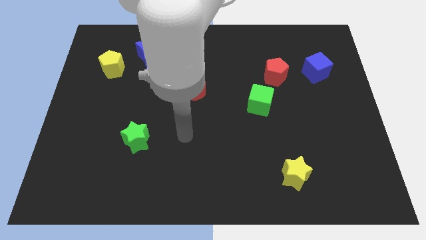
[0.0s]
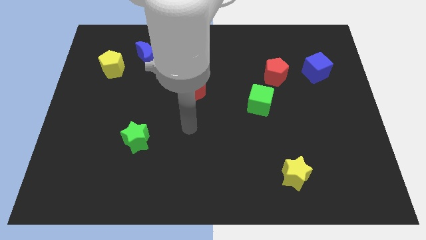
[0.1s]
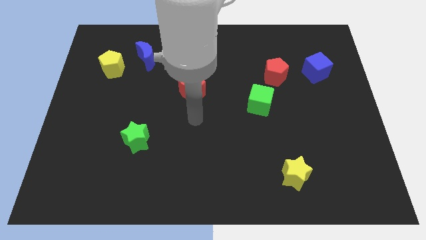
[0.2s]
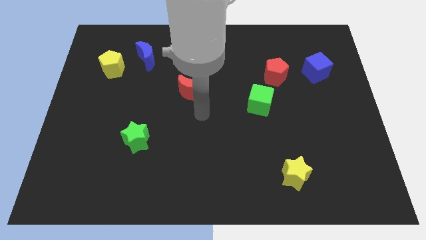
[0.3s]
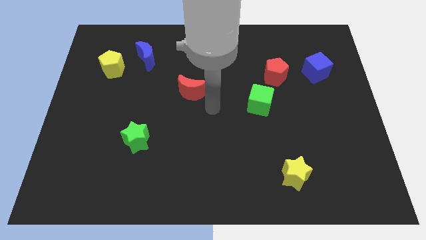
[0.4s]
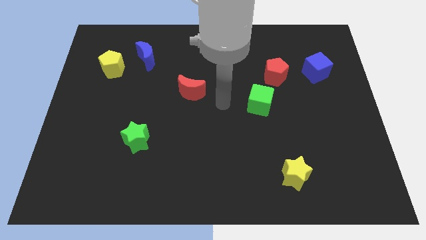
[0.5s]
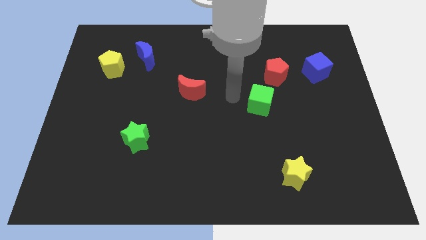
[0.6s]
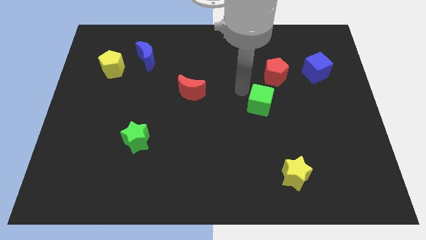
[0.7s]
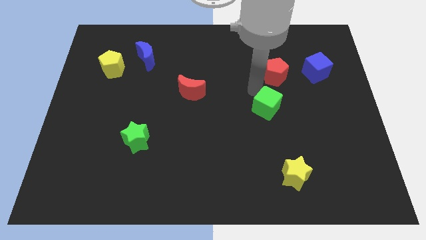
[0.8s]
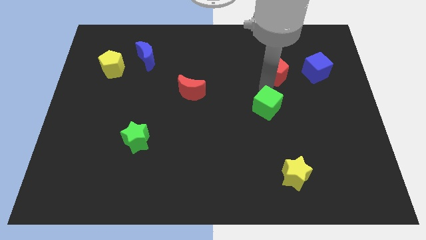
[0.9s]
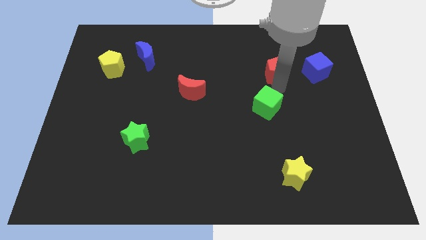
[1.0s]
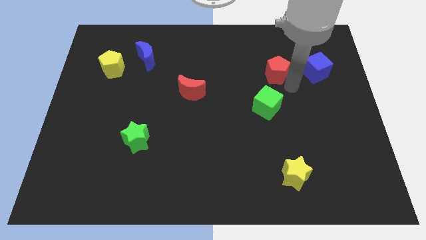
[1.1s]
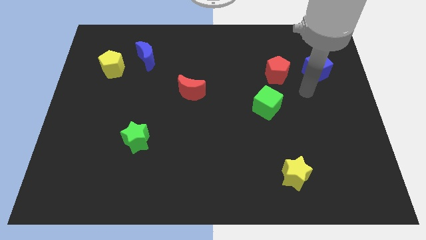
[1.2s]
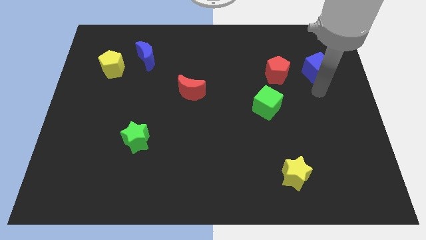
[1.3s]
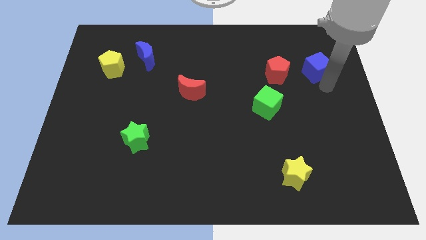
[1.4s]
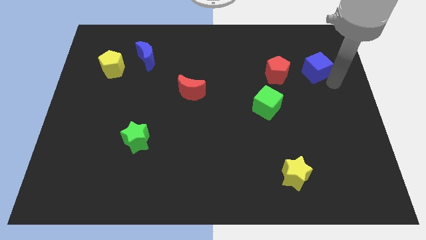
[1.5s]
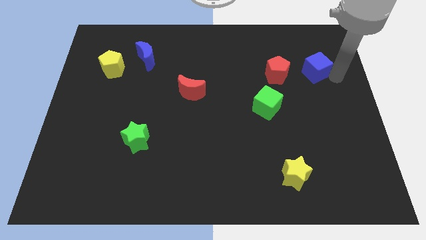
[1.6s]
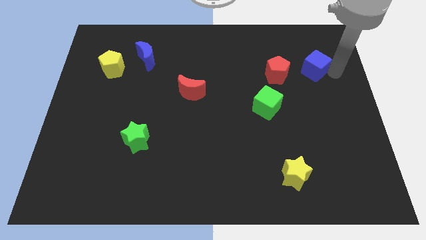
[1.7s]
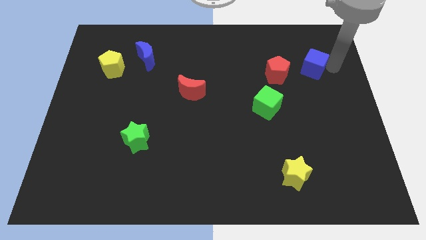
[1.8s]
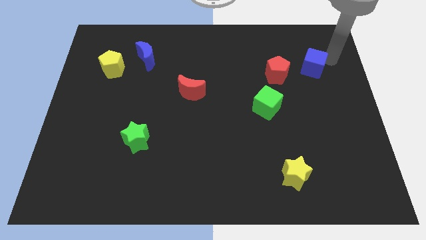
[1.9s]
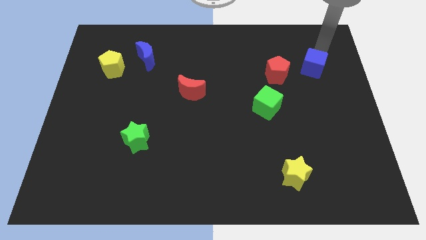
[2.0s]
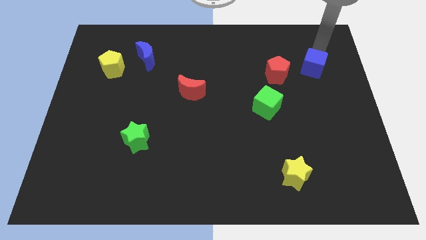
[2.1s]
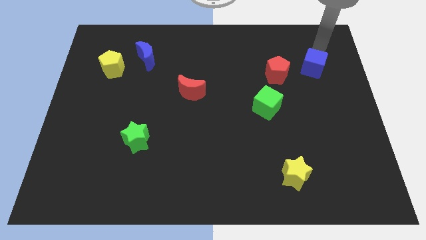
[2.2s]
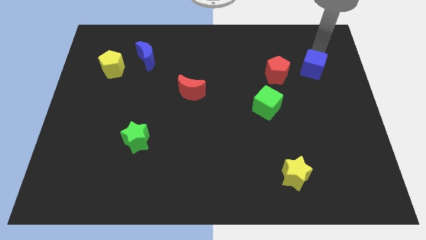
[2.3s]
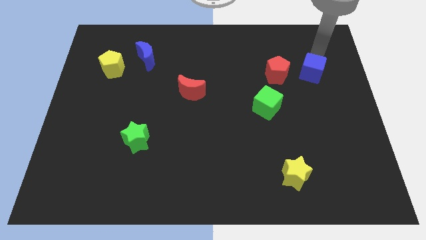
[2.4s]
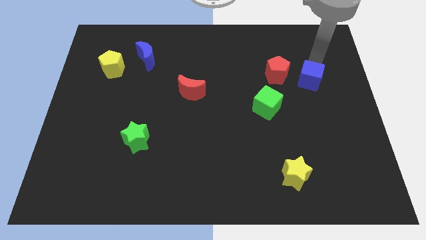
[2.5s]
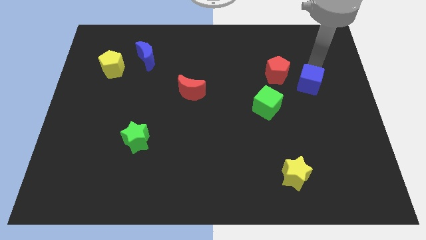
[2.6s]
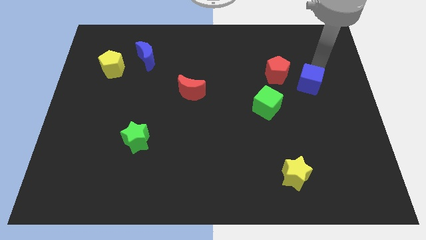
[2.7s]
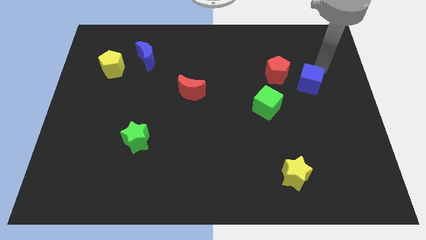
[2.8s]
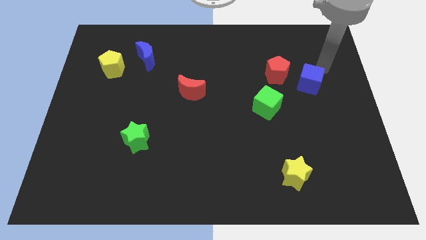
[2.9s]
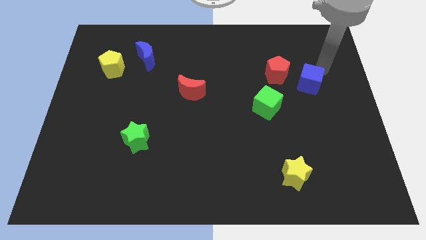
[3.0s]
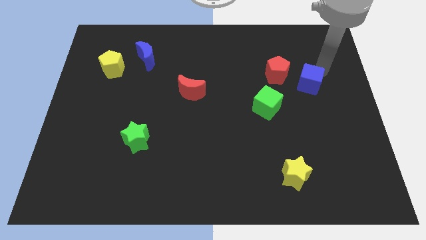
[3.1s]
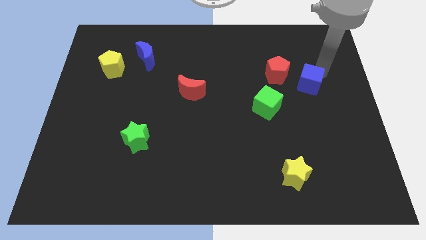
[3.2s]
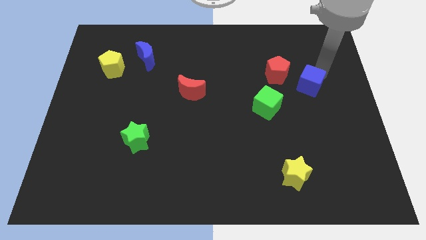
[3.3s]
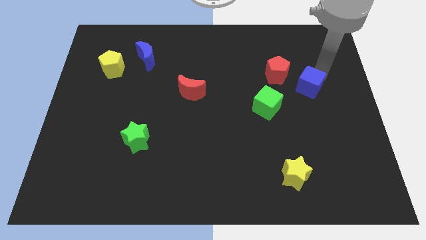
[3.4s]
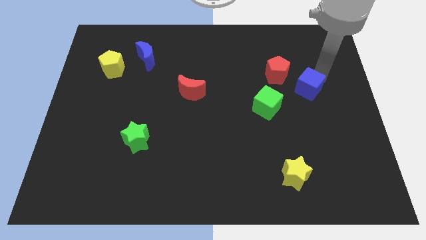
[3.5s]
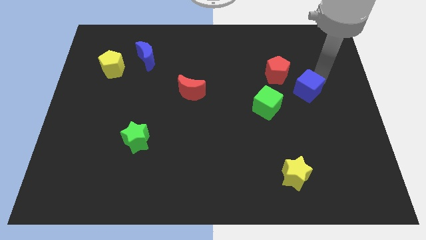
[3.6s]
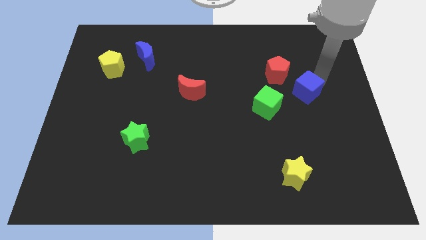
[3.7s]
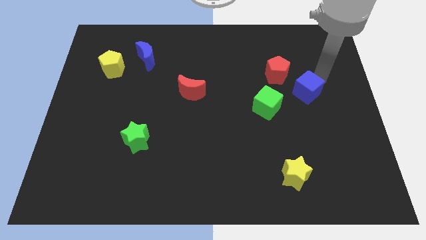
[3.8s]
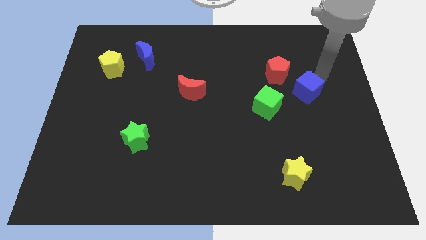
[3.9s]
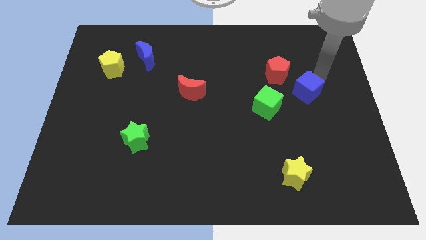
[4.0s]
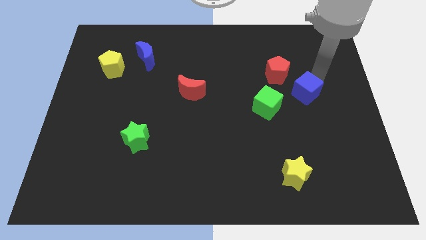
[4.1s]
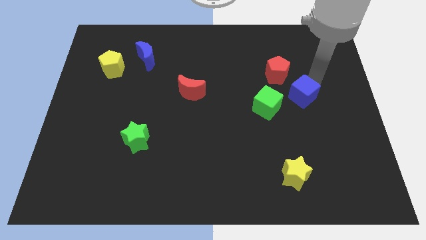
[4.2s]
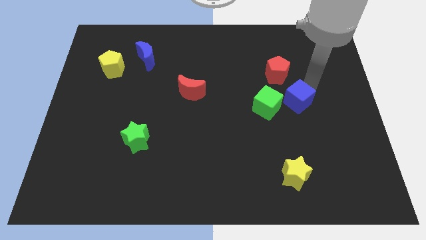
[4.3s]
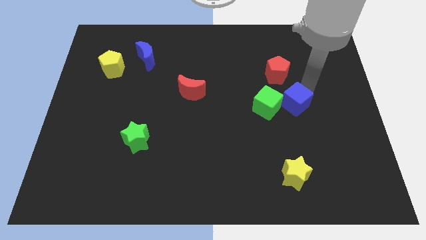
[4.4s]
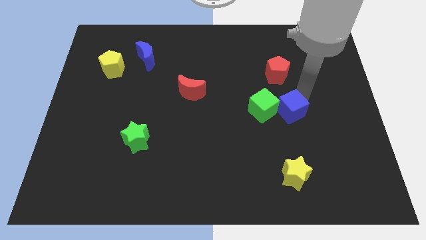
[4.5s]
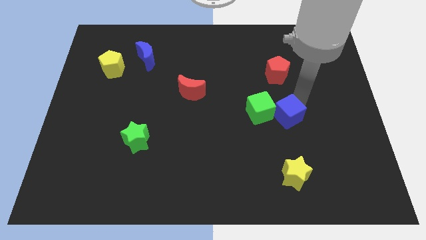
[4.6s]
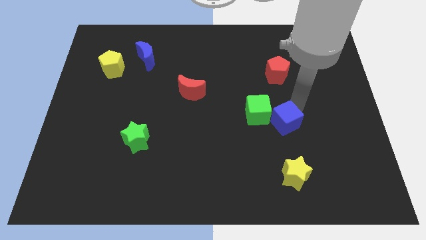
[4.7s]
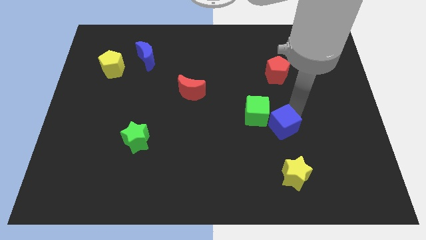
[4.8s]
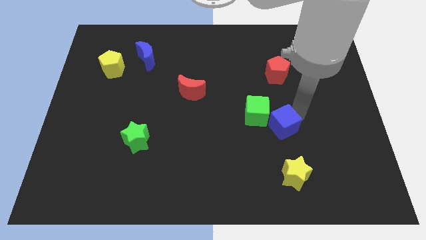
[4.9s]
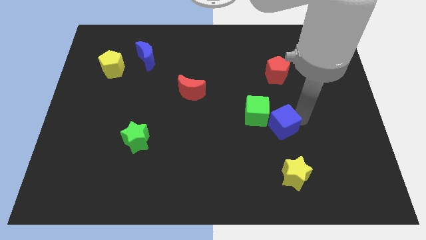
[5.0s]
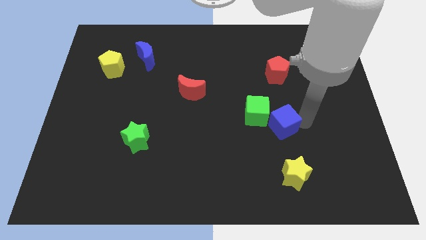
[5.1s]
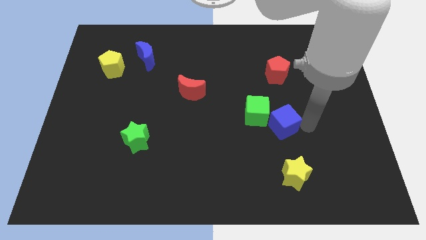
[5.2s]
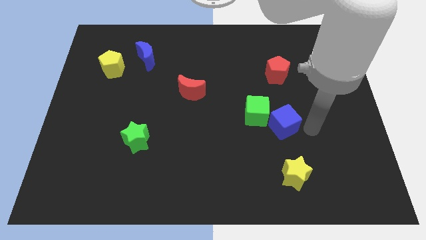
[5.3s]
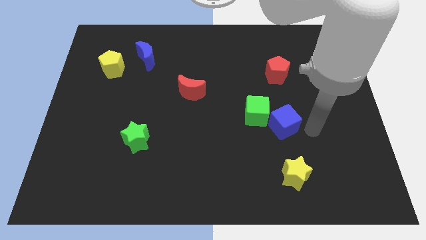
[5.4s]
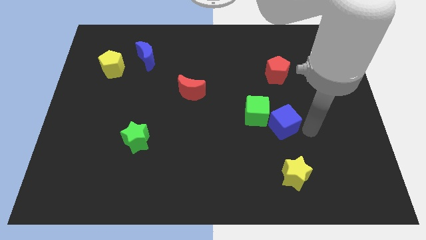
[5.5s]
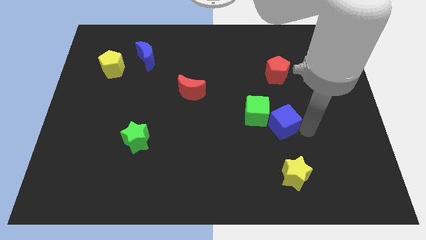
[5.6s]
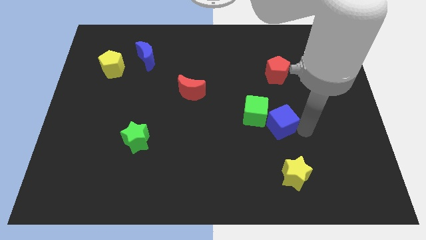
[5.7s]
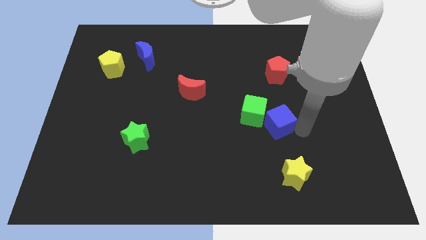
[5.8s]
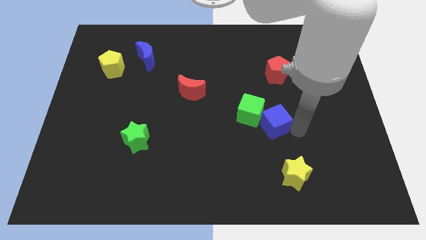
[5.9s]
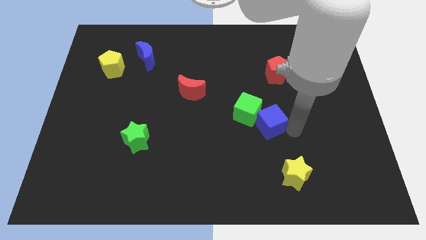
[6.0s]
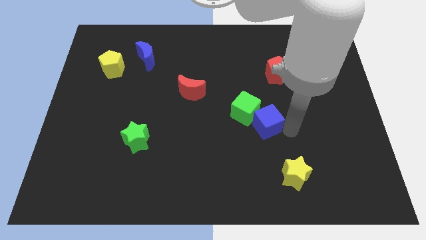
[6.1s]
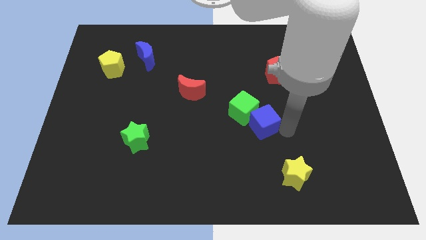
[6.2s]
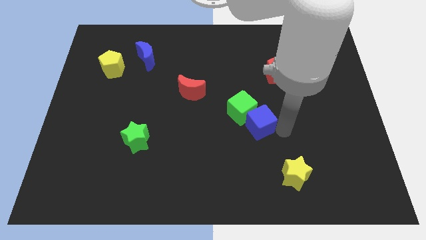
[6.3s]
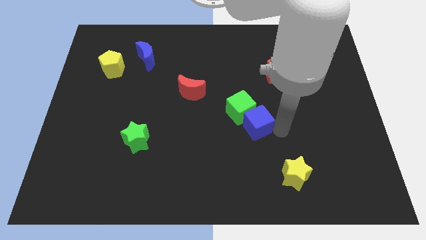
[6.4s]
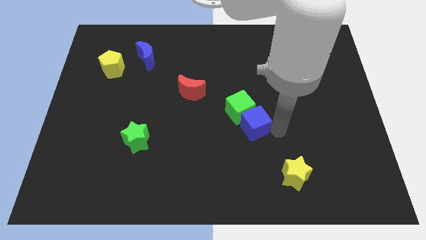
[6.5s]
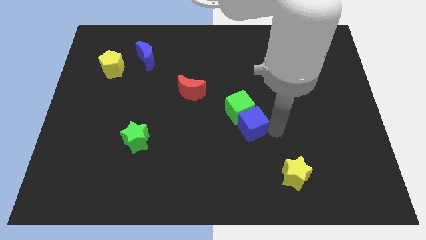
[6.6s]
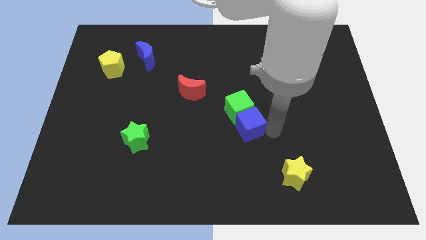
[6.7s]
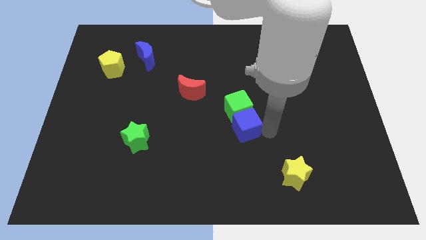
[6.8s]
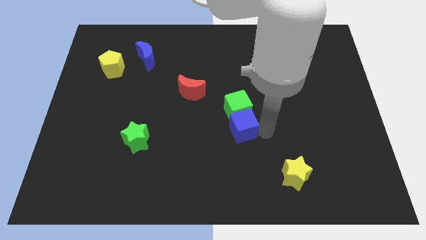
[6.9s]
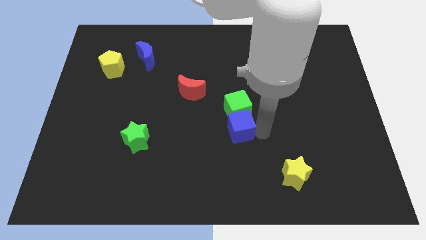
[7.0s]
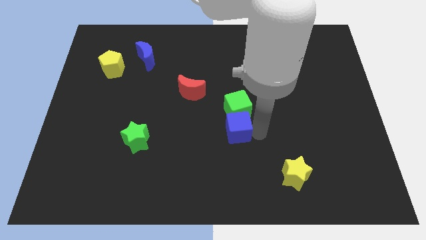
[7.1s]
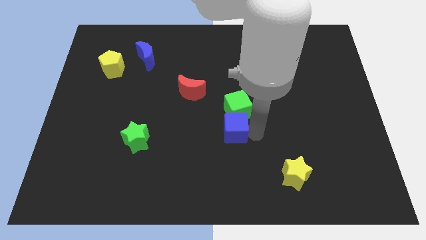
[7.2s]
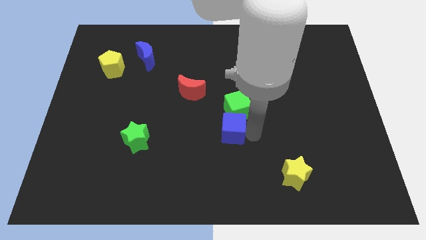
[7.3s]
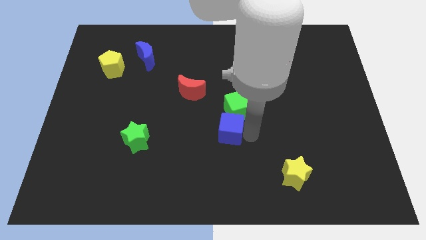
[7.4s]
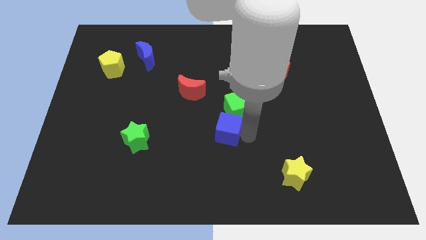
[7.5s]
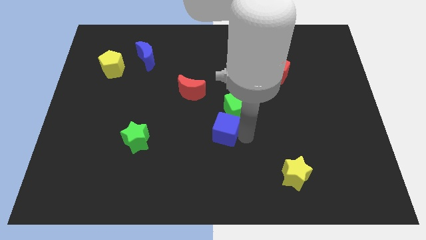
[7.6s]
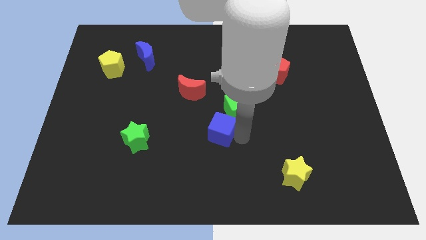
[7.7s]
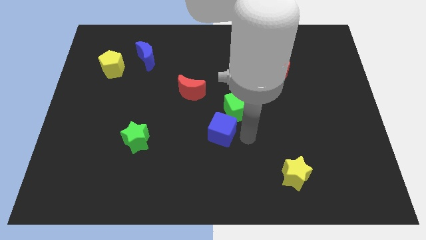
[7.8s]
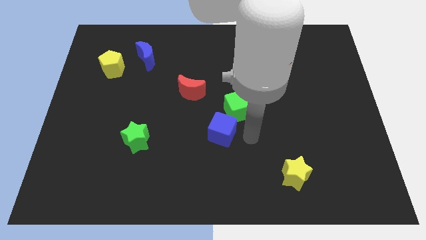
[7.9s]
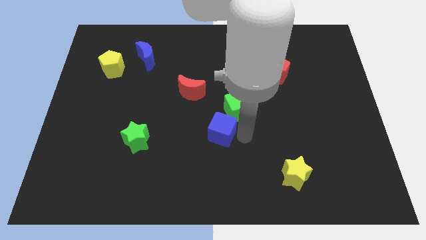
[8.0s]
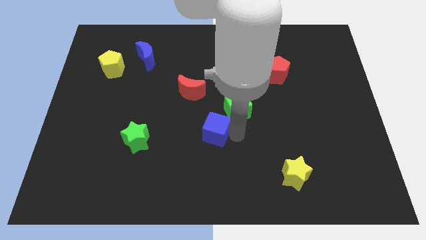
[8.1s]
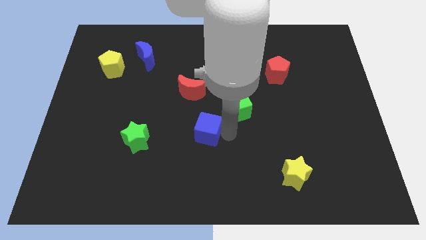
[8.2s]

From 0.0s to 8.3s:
move the blue cube to the bottom of the red moon
